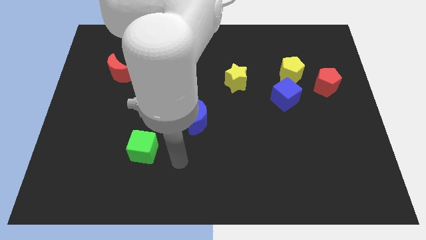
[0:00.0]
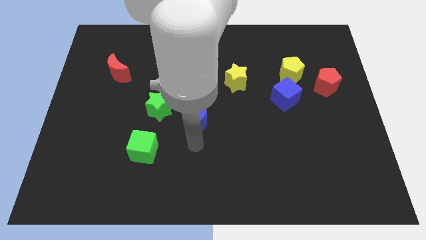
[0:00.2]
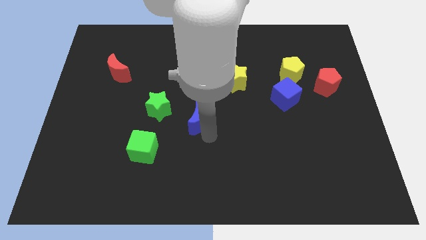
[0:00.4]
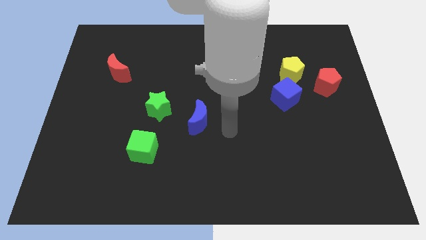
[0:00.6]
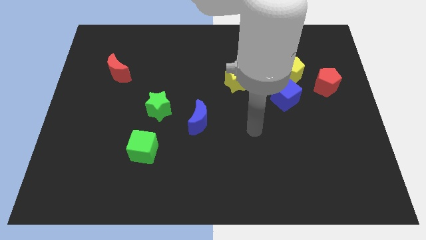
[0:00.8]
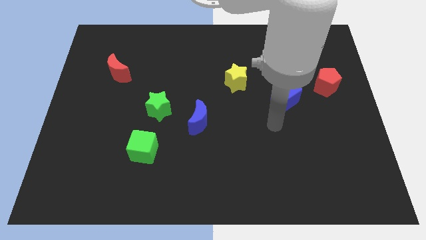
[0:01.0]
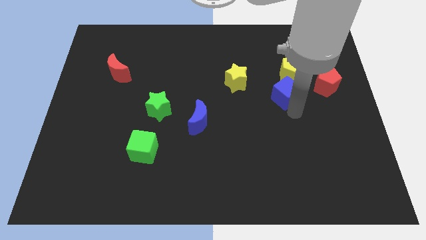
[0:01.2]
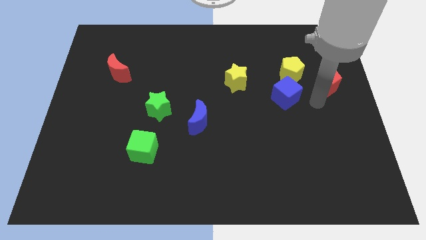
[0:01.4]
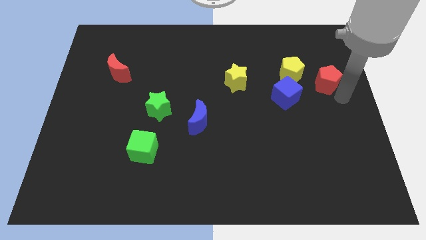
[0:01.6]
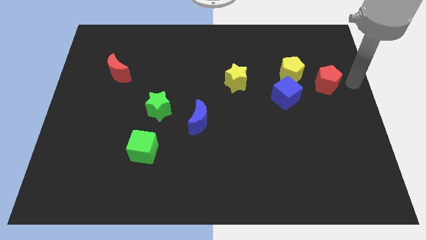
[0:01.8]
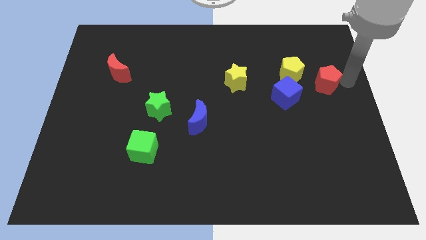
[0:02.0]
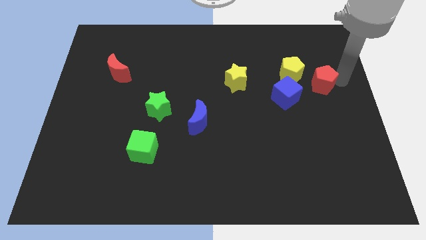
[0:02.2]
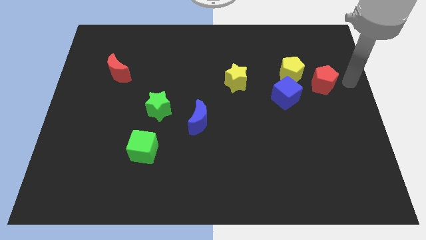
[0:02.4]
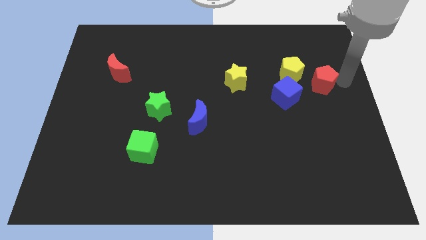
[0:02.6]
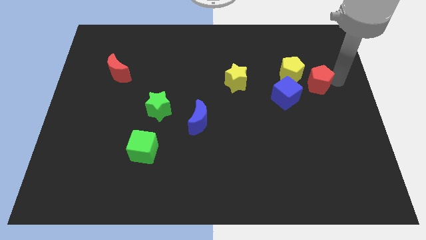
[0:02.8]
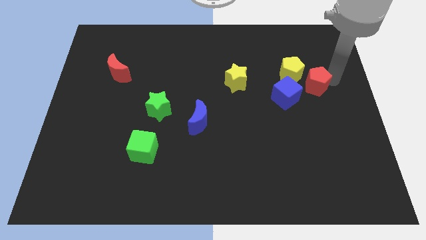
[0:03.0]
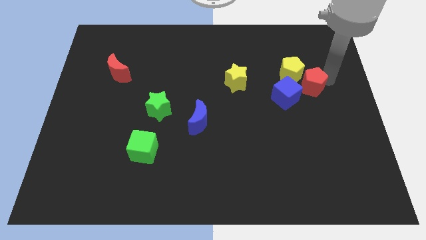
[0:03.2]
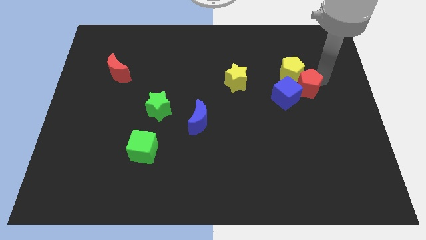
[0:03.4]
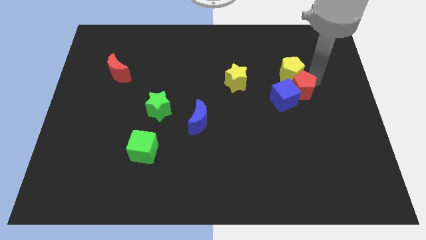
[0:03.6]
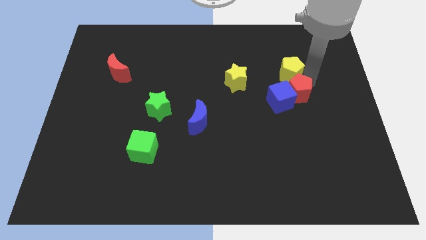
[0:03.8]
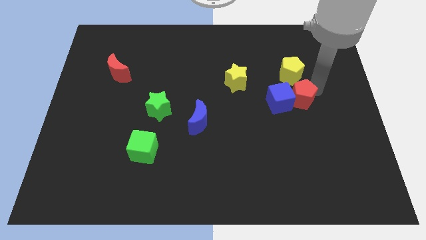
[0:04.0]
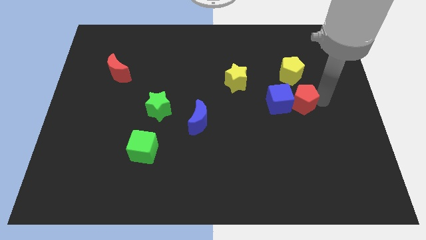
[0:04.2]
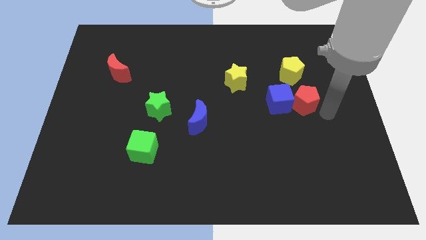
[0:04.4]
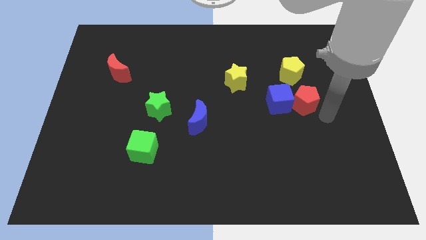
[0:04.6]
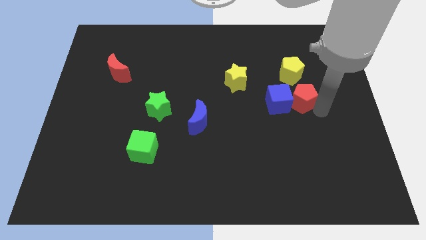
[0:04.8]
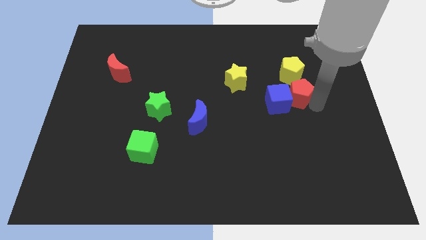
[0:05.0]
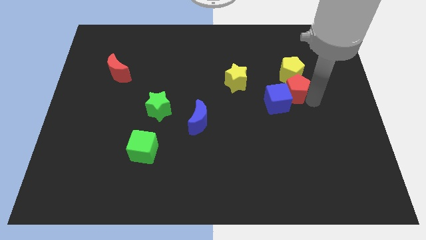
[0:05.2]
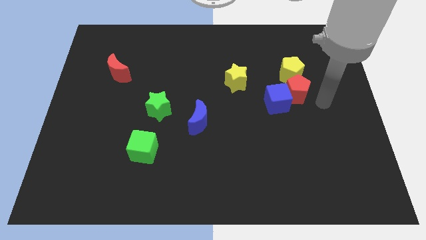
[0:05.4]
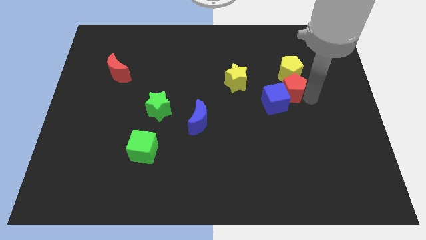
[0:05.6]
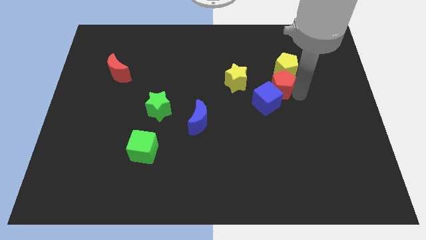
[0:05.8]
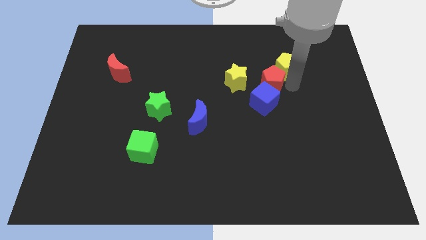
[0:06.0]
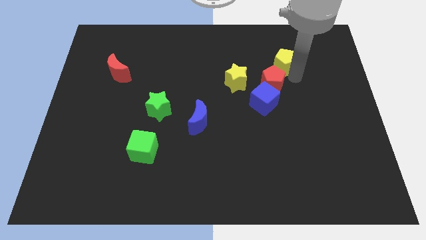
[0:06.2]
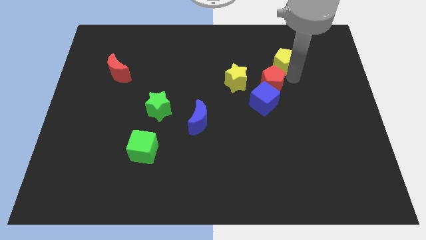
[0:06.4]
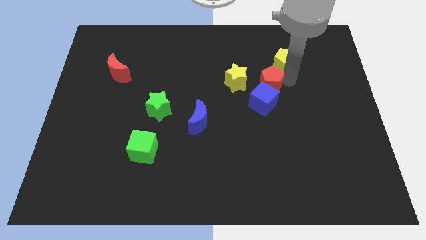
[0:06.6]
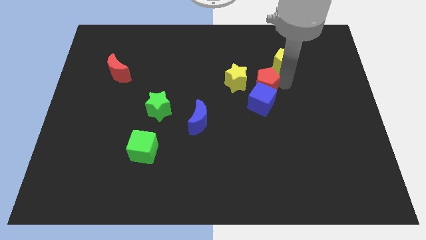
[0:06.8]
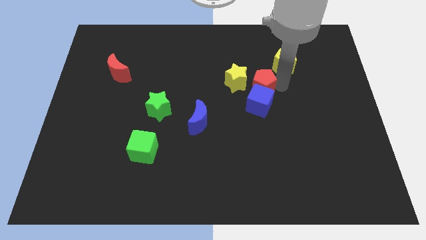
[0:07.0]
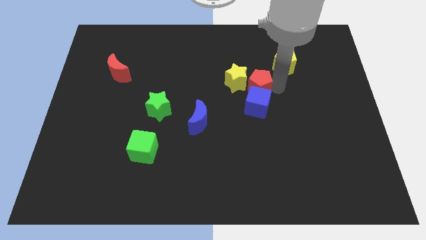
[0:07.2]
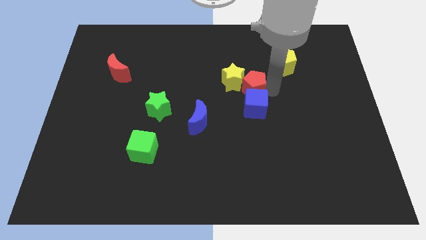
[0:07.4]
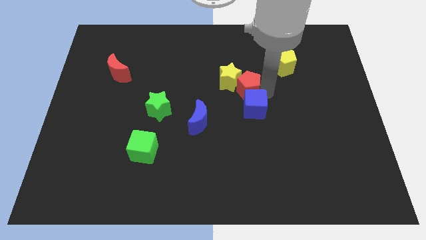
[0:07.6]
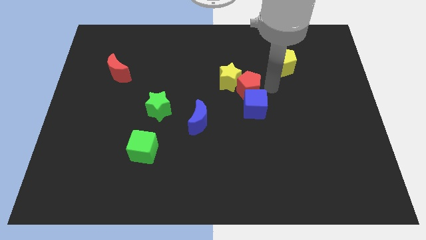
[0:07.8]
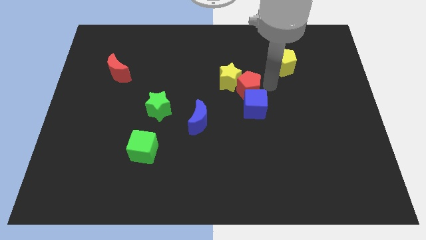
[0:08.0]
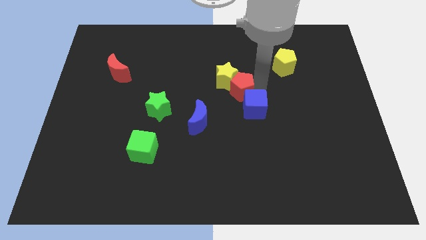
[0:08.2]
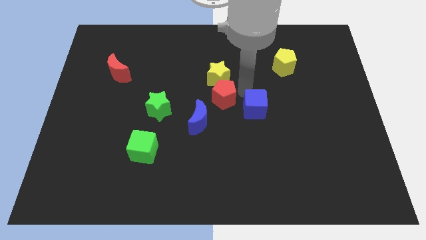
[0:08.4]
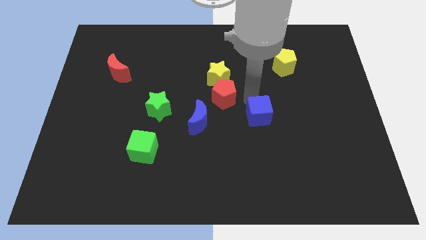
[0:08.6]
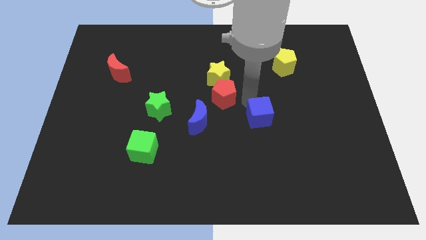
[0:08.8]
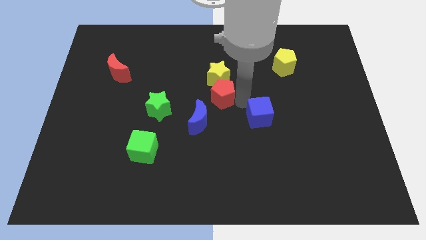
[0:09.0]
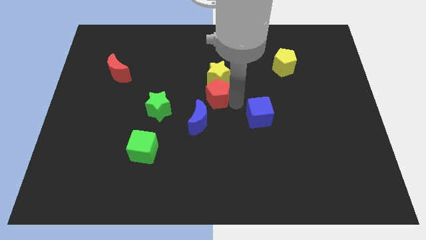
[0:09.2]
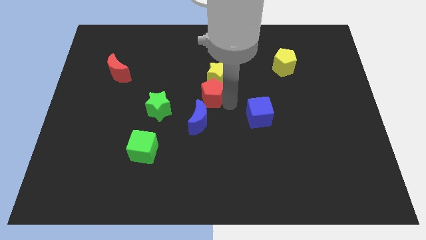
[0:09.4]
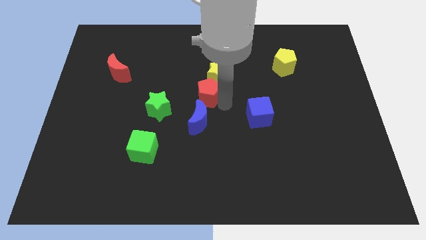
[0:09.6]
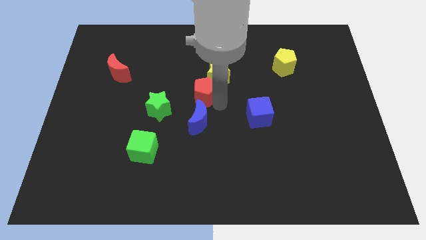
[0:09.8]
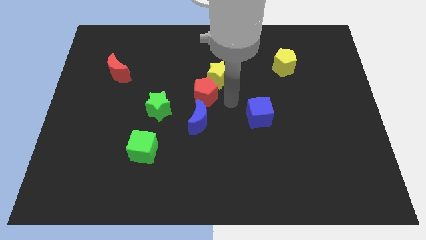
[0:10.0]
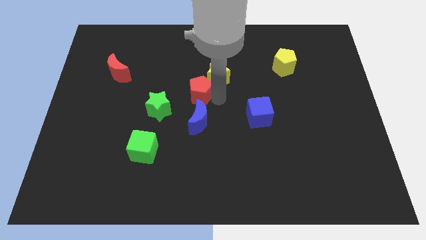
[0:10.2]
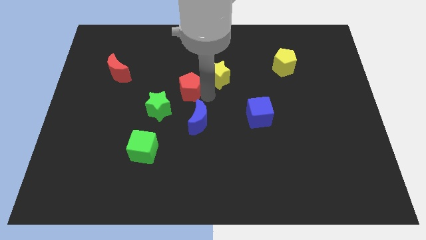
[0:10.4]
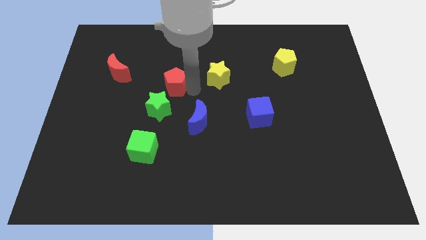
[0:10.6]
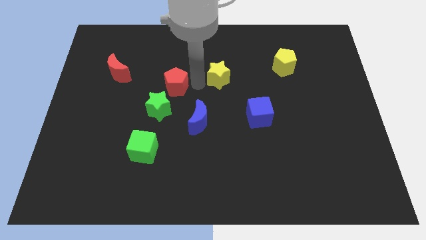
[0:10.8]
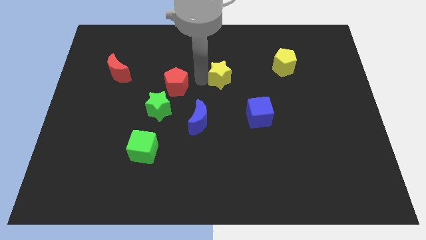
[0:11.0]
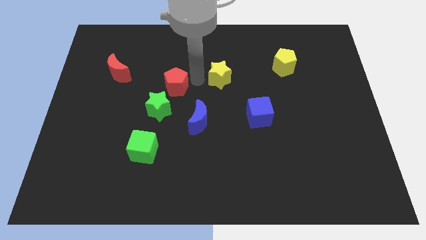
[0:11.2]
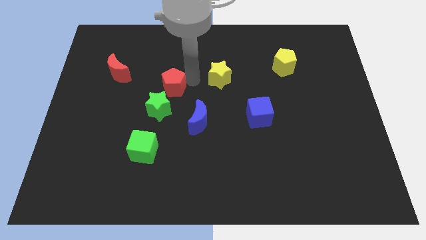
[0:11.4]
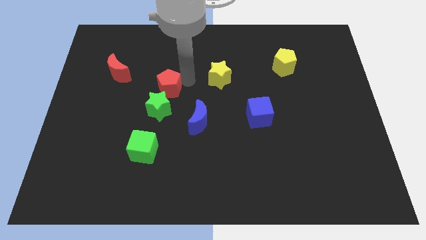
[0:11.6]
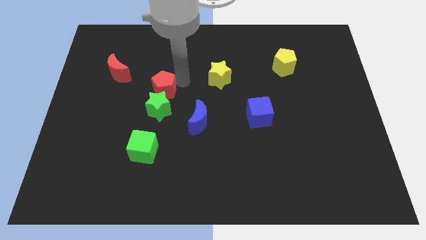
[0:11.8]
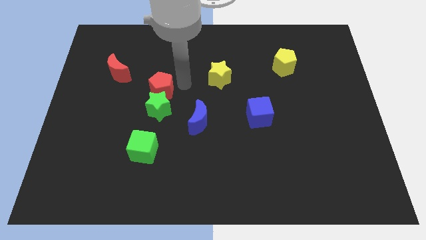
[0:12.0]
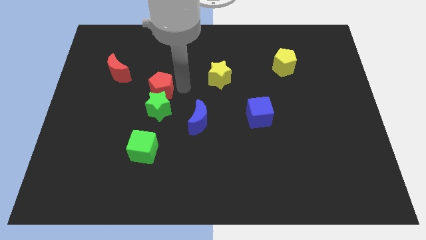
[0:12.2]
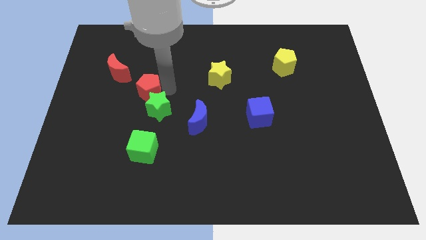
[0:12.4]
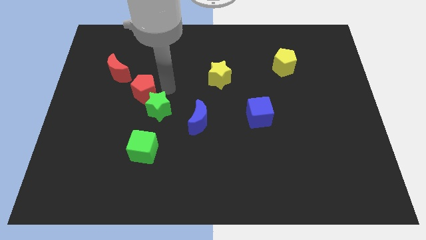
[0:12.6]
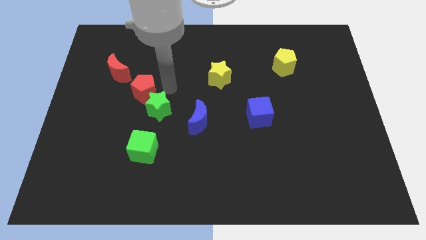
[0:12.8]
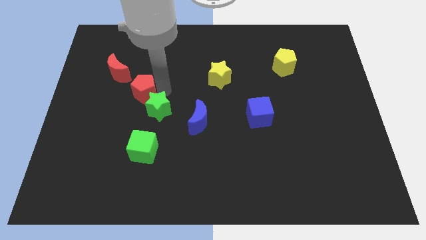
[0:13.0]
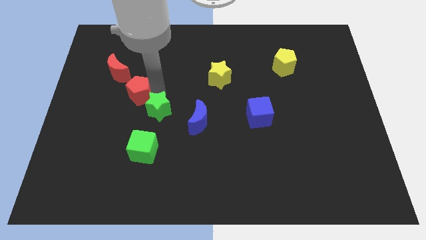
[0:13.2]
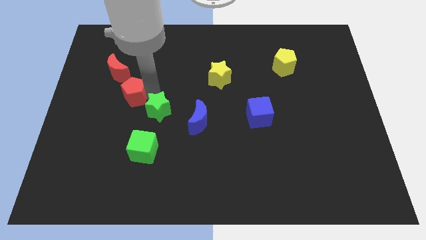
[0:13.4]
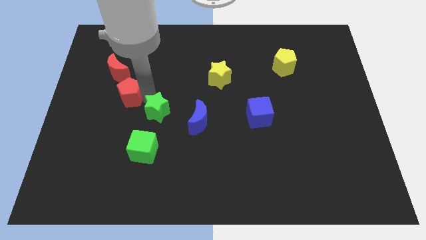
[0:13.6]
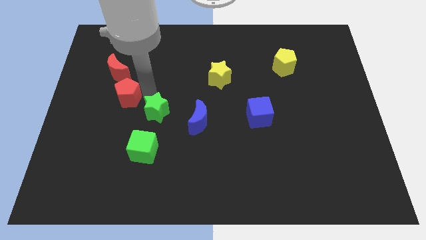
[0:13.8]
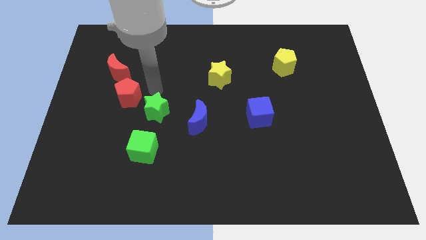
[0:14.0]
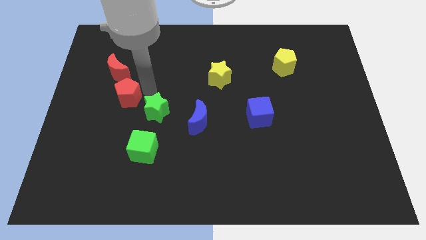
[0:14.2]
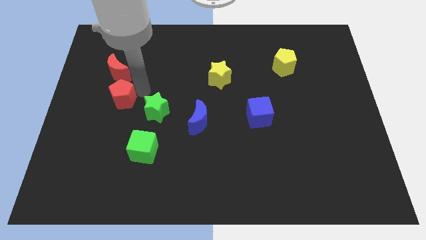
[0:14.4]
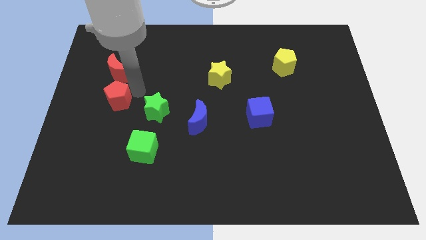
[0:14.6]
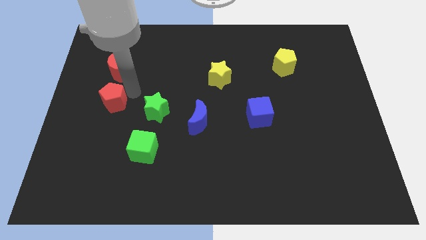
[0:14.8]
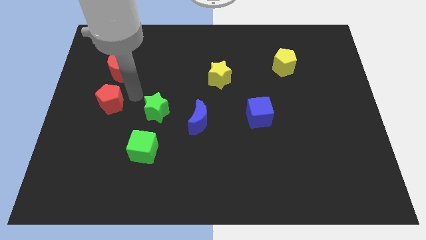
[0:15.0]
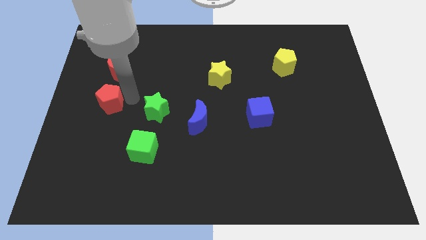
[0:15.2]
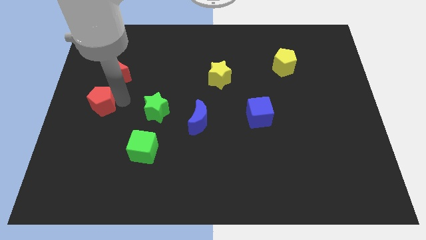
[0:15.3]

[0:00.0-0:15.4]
put the red pentagon to the left side of the board
